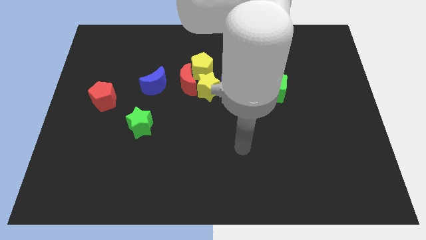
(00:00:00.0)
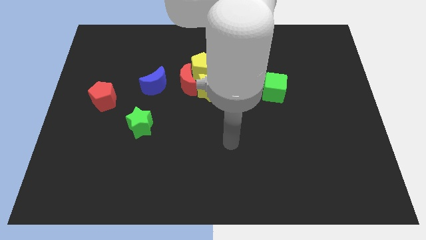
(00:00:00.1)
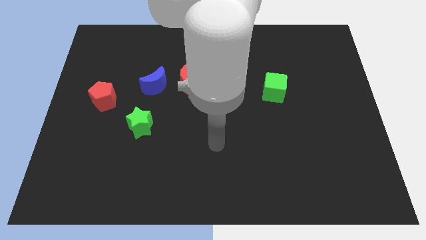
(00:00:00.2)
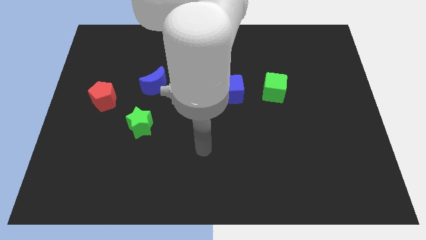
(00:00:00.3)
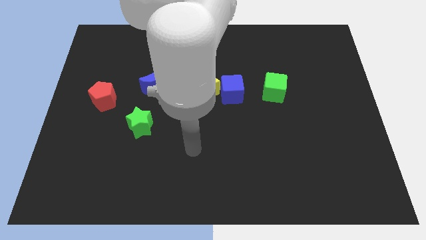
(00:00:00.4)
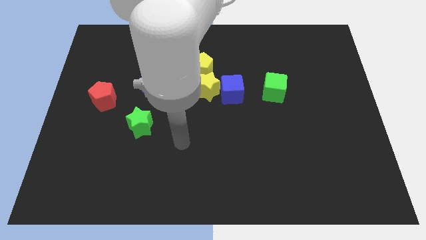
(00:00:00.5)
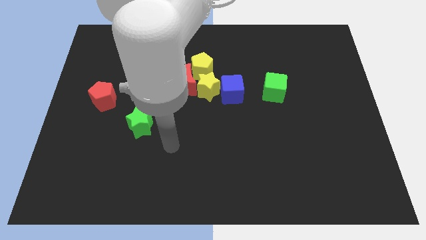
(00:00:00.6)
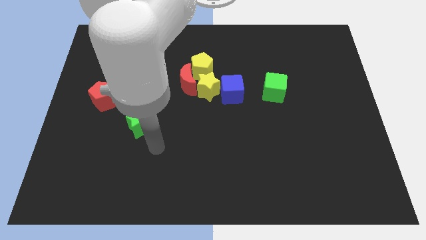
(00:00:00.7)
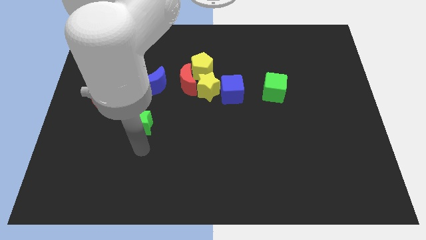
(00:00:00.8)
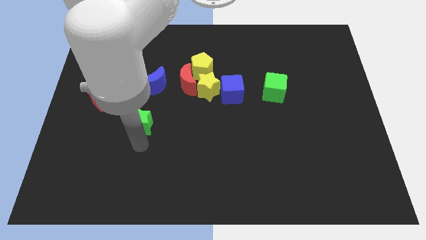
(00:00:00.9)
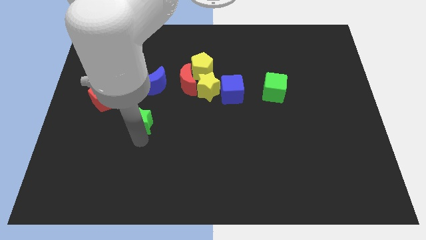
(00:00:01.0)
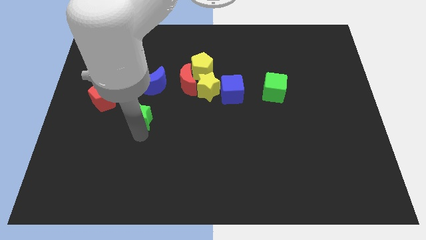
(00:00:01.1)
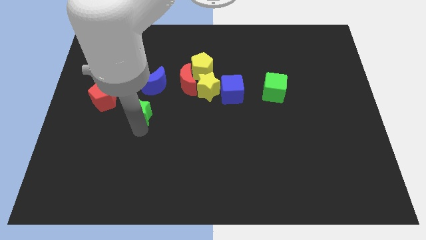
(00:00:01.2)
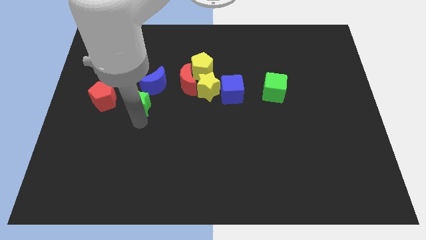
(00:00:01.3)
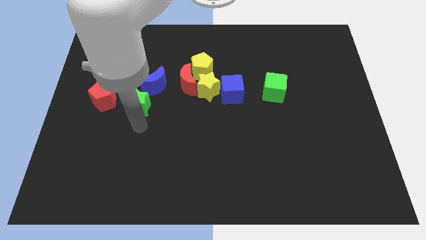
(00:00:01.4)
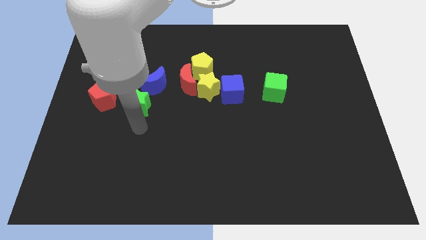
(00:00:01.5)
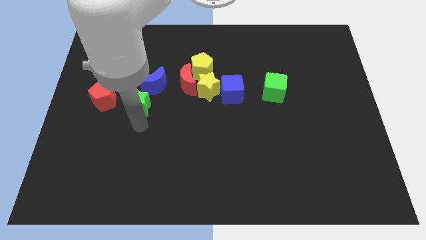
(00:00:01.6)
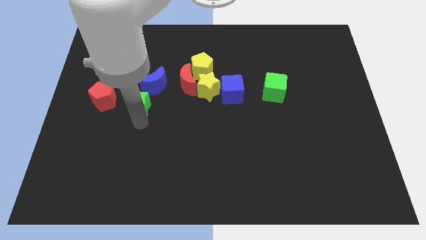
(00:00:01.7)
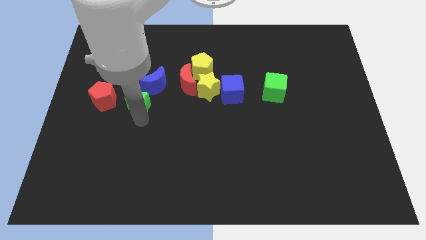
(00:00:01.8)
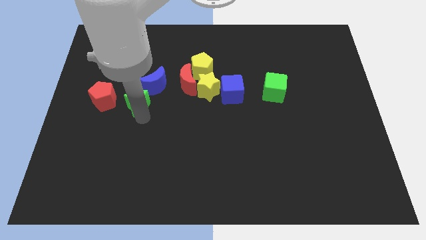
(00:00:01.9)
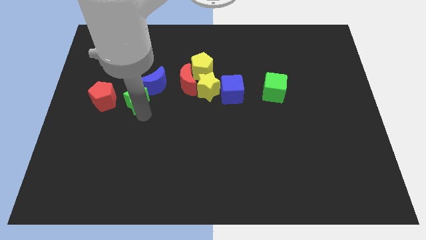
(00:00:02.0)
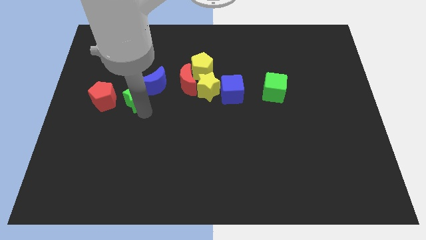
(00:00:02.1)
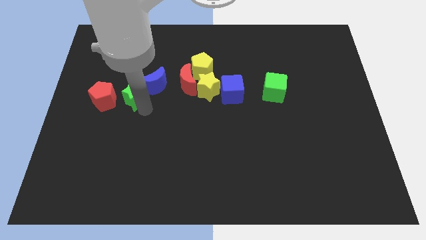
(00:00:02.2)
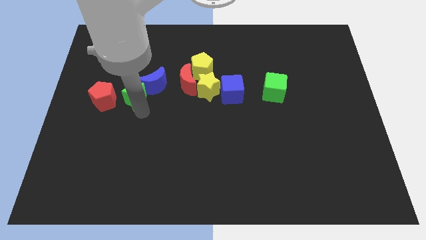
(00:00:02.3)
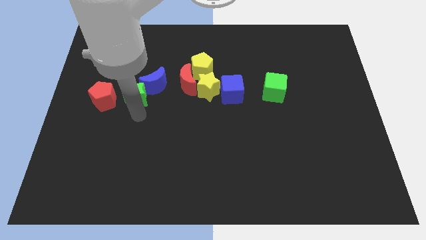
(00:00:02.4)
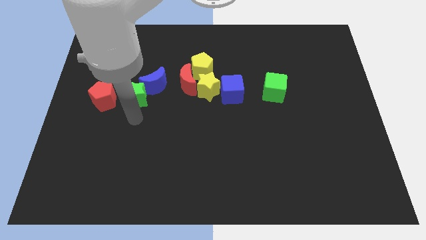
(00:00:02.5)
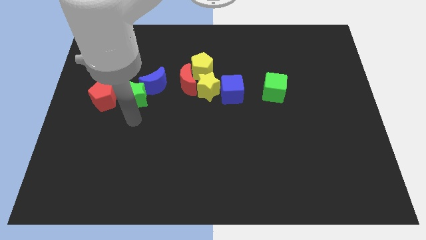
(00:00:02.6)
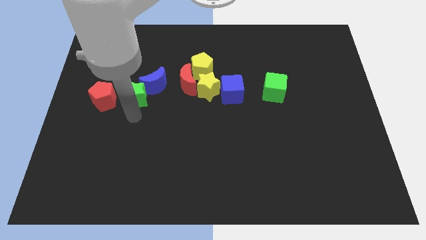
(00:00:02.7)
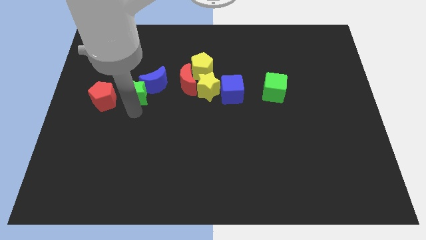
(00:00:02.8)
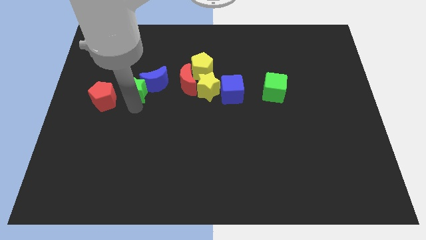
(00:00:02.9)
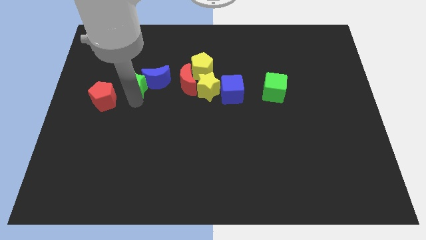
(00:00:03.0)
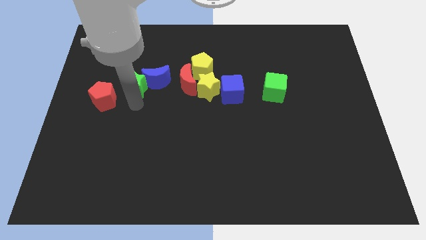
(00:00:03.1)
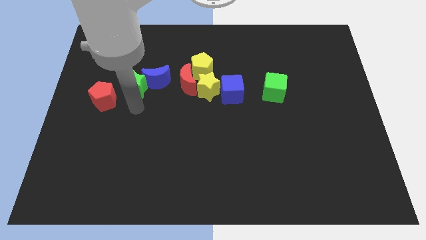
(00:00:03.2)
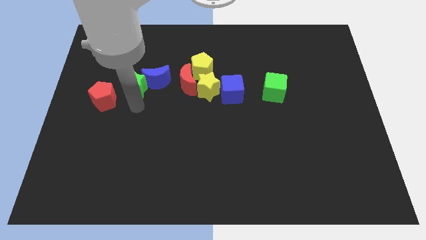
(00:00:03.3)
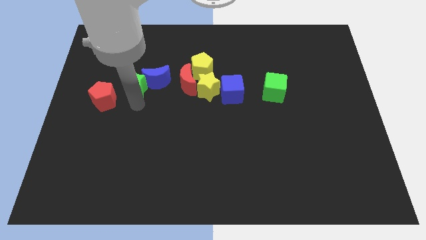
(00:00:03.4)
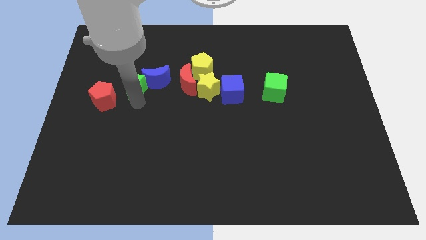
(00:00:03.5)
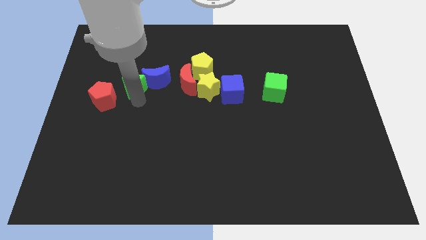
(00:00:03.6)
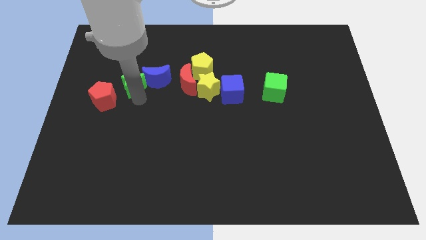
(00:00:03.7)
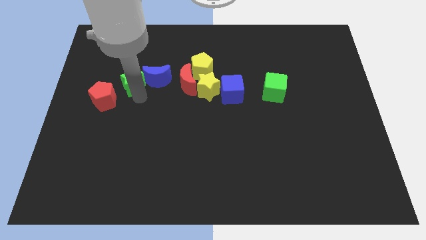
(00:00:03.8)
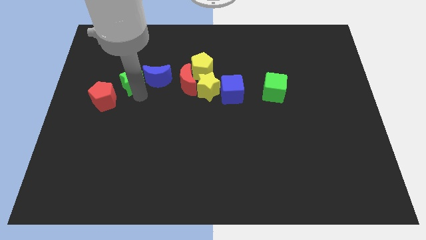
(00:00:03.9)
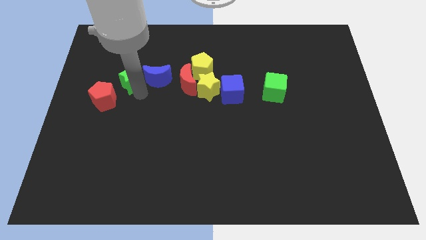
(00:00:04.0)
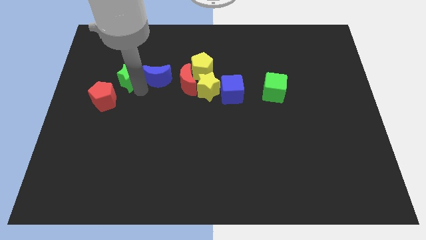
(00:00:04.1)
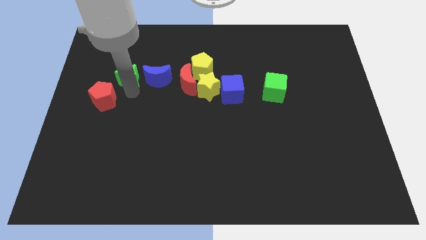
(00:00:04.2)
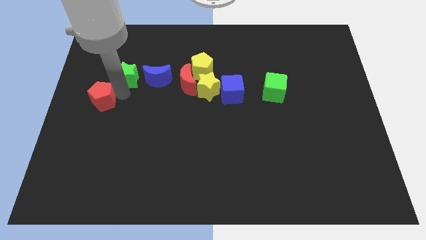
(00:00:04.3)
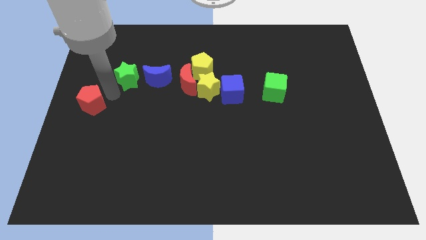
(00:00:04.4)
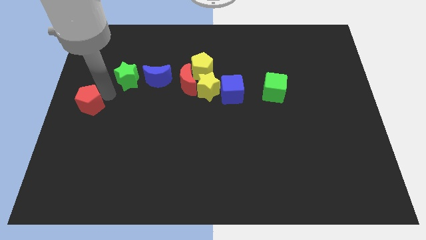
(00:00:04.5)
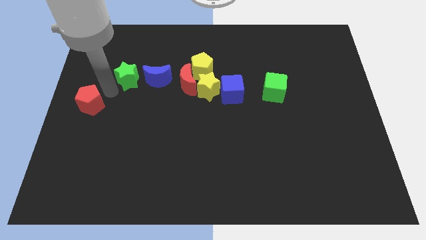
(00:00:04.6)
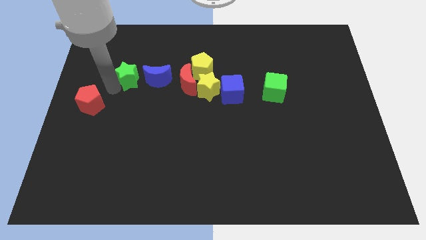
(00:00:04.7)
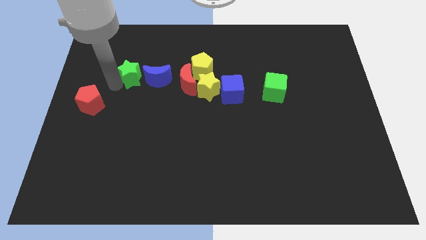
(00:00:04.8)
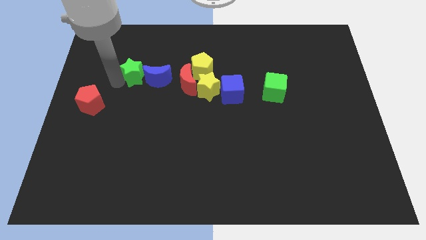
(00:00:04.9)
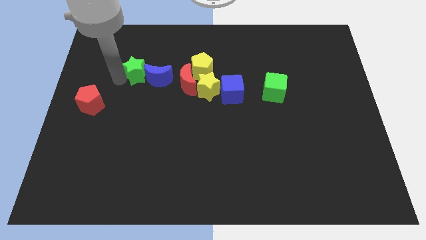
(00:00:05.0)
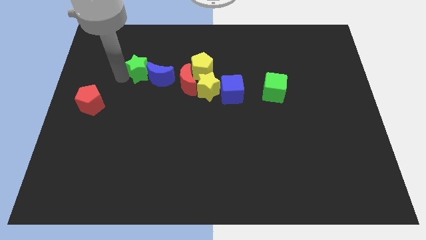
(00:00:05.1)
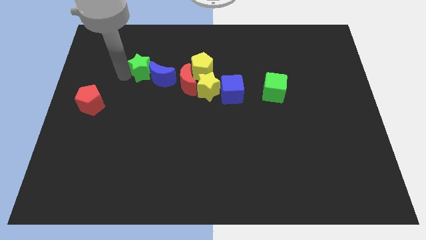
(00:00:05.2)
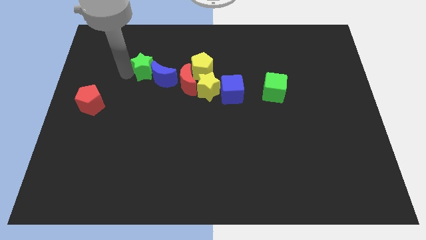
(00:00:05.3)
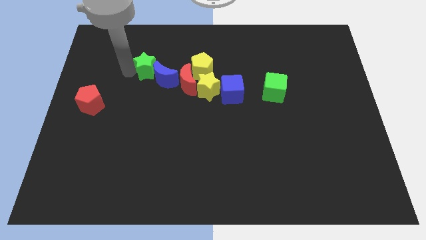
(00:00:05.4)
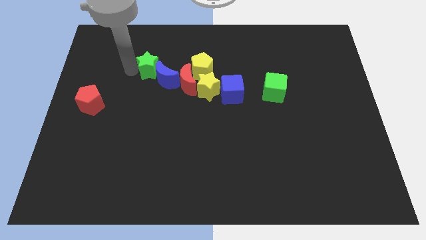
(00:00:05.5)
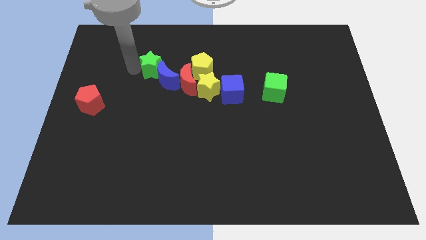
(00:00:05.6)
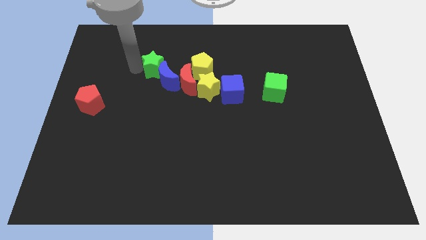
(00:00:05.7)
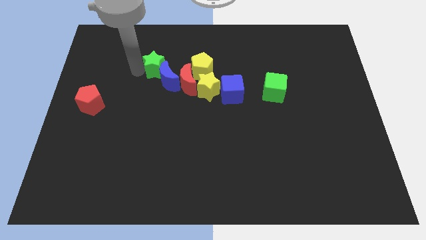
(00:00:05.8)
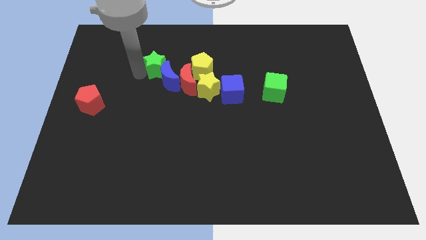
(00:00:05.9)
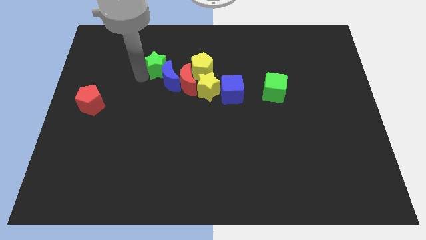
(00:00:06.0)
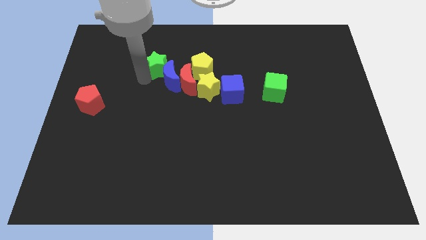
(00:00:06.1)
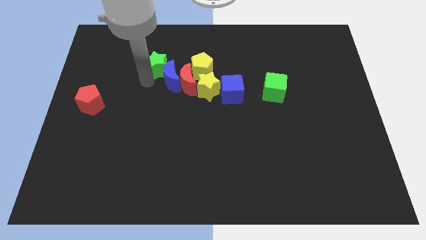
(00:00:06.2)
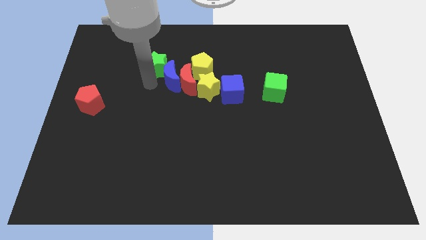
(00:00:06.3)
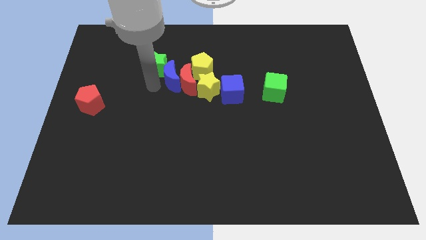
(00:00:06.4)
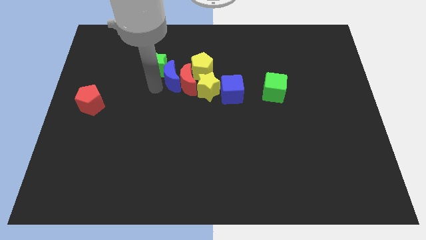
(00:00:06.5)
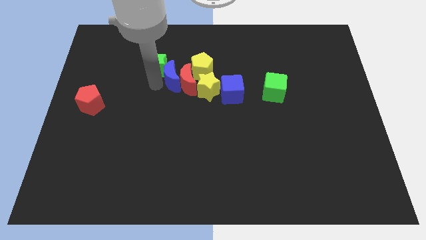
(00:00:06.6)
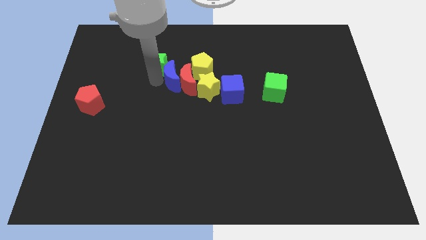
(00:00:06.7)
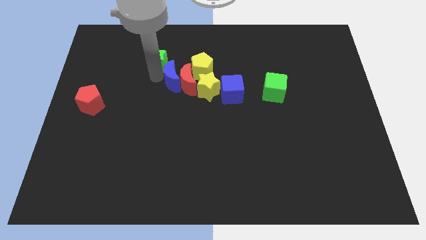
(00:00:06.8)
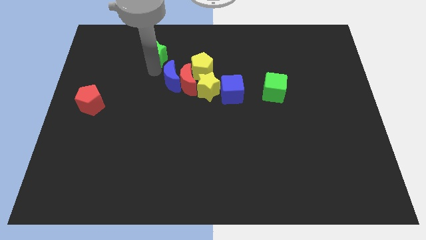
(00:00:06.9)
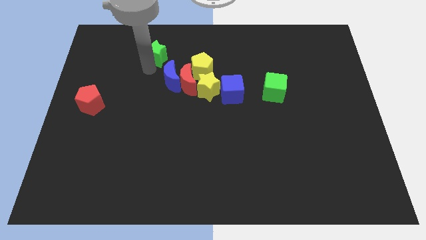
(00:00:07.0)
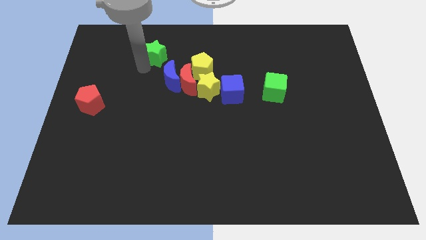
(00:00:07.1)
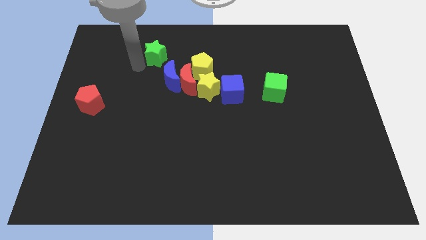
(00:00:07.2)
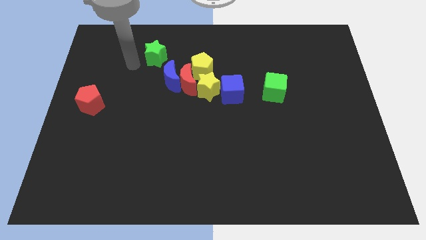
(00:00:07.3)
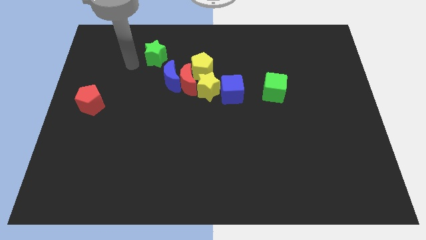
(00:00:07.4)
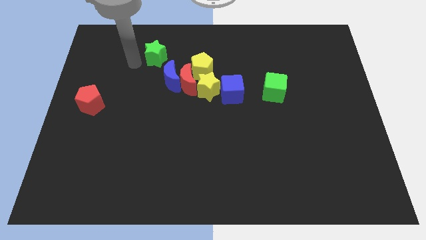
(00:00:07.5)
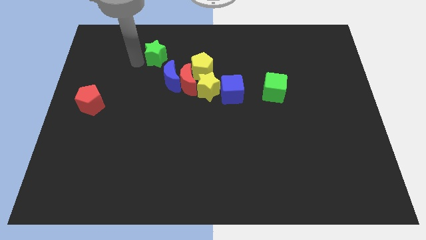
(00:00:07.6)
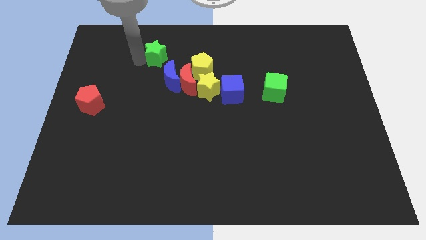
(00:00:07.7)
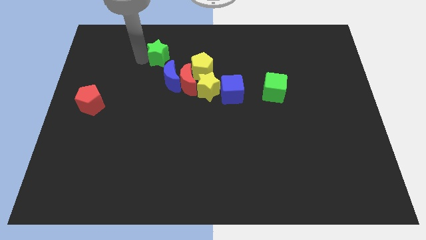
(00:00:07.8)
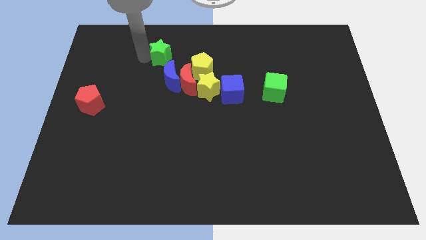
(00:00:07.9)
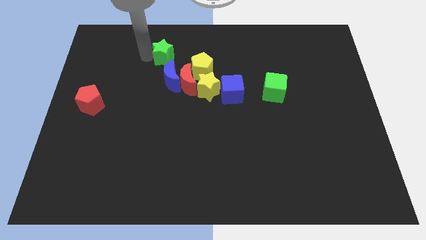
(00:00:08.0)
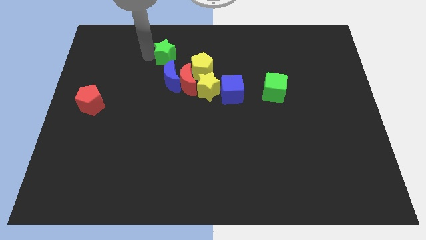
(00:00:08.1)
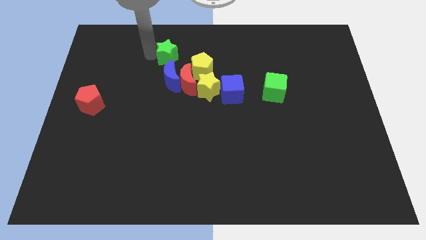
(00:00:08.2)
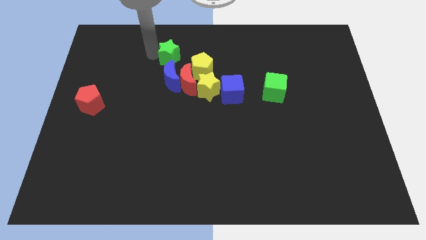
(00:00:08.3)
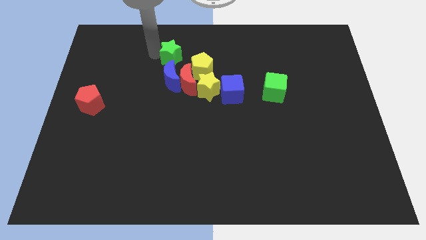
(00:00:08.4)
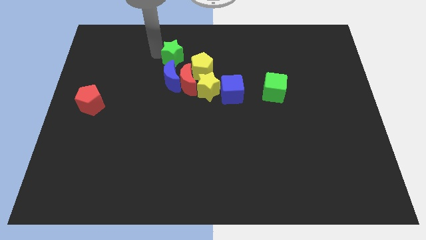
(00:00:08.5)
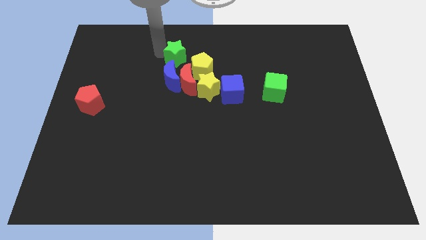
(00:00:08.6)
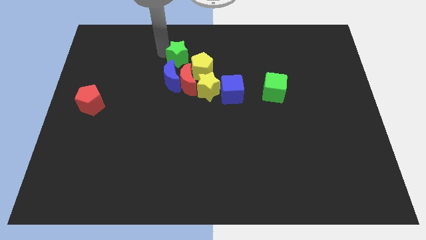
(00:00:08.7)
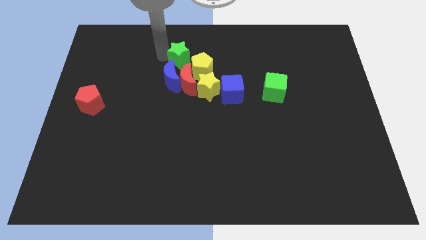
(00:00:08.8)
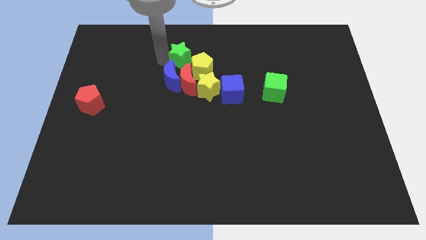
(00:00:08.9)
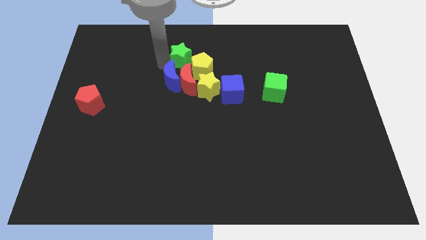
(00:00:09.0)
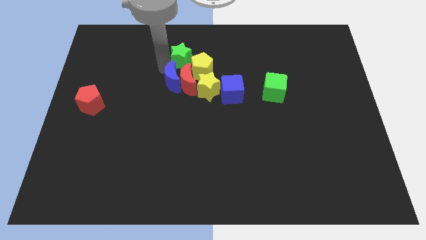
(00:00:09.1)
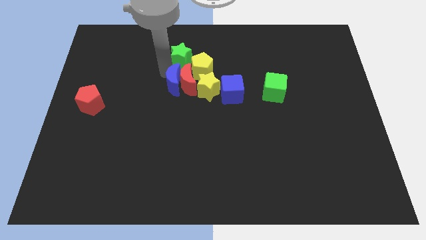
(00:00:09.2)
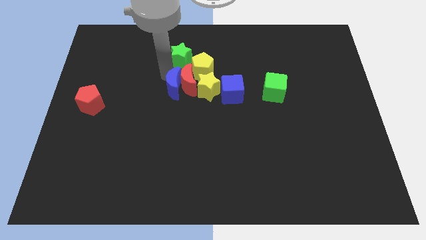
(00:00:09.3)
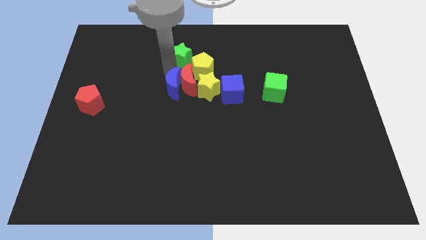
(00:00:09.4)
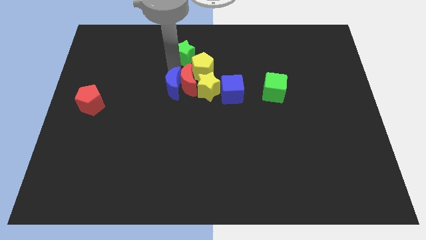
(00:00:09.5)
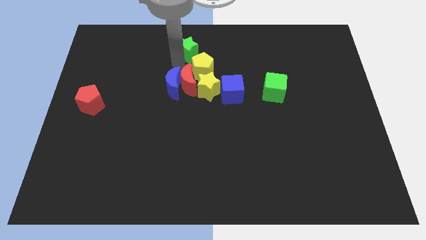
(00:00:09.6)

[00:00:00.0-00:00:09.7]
move the green star to the towards your base
